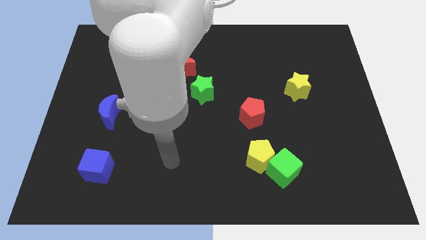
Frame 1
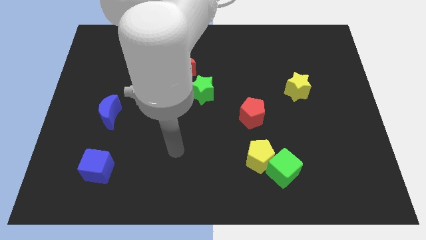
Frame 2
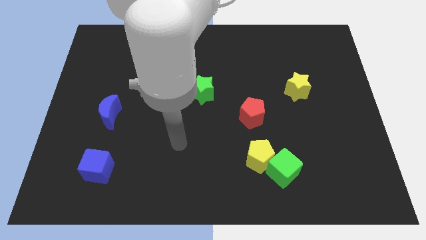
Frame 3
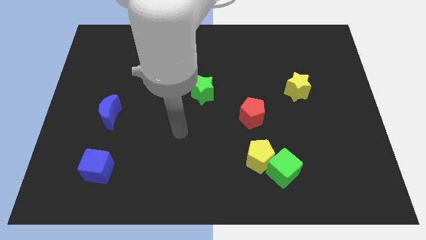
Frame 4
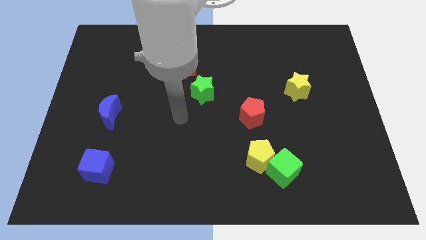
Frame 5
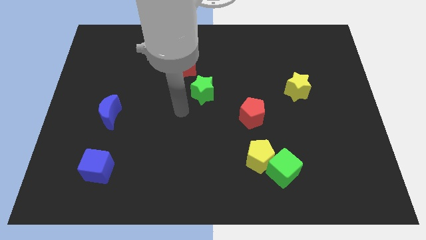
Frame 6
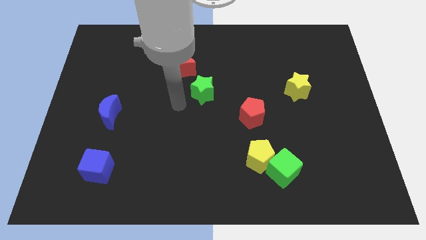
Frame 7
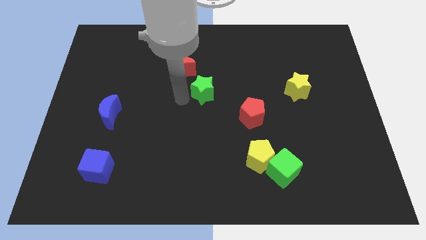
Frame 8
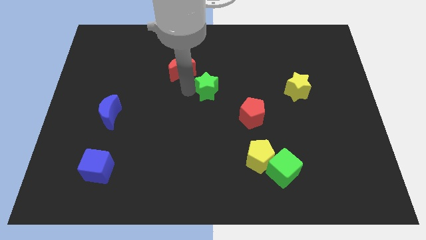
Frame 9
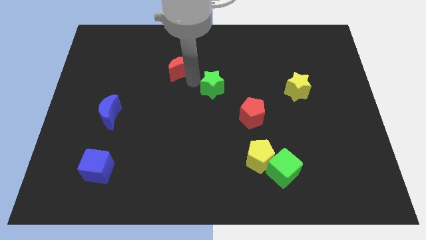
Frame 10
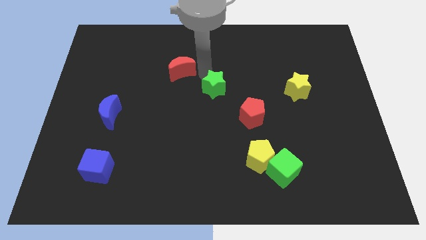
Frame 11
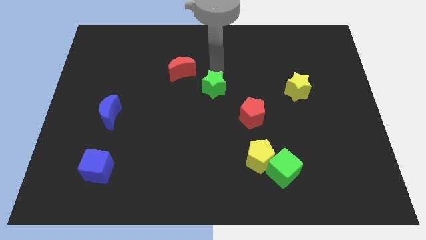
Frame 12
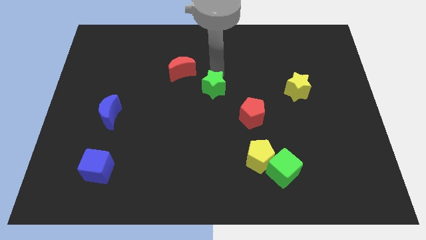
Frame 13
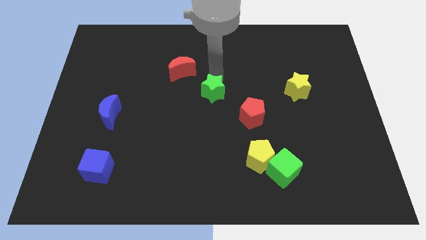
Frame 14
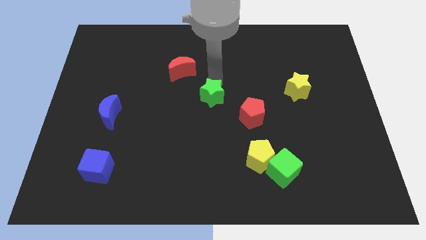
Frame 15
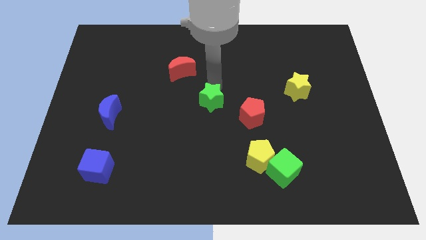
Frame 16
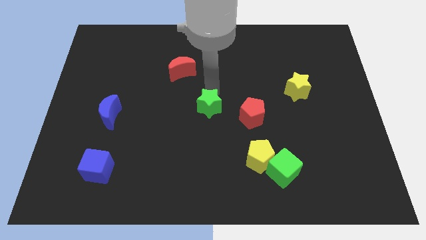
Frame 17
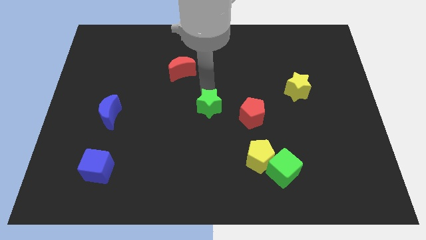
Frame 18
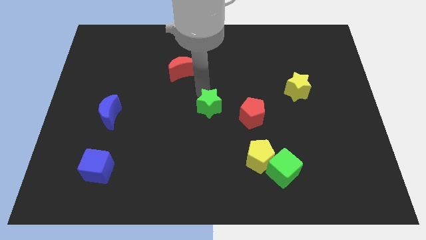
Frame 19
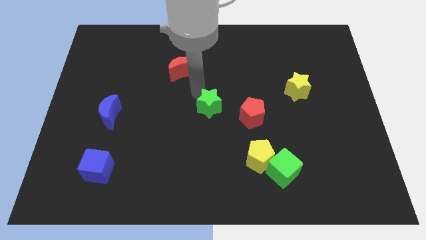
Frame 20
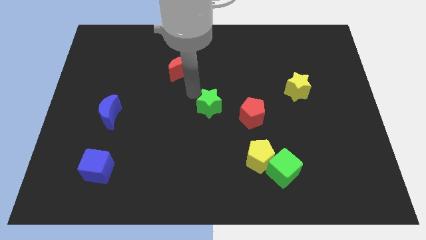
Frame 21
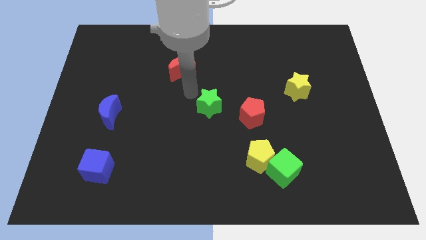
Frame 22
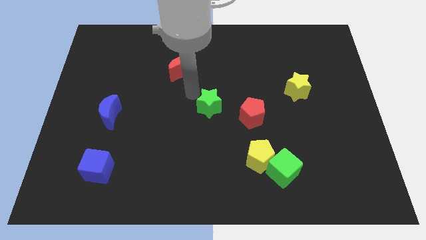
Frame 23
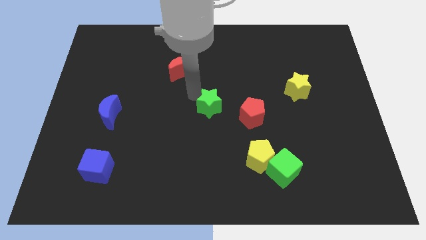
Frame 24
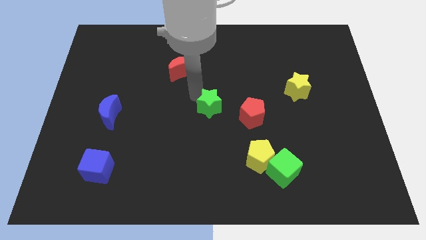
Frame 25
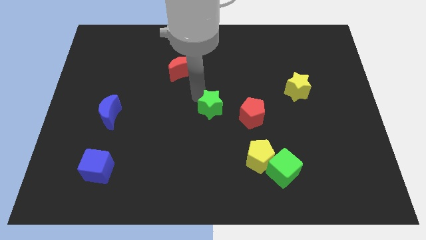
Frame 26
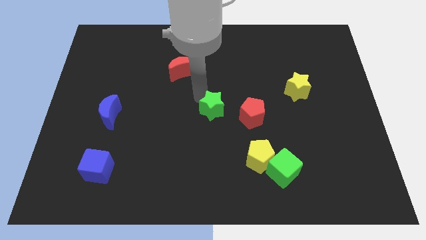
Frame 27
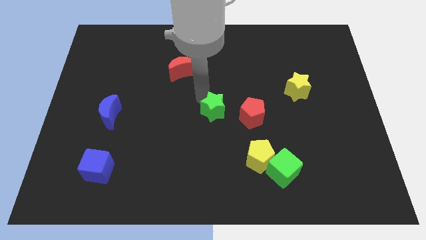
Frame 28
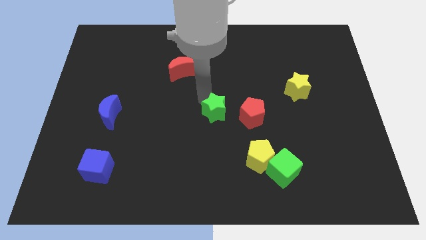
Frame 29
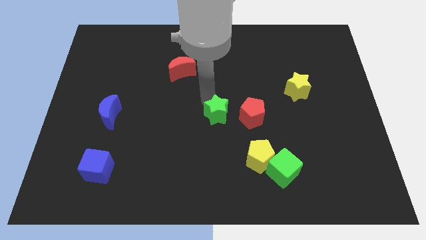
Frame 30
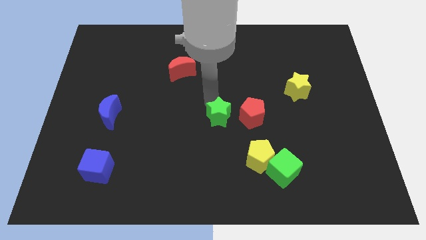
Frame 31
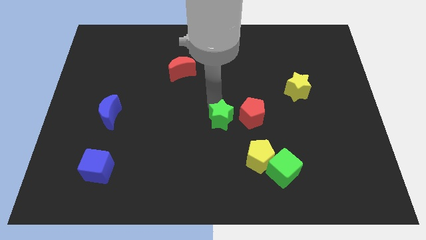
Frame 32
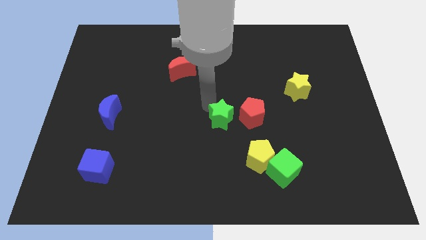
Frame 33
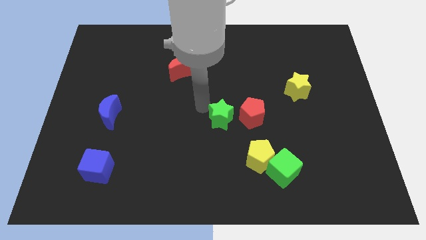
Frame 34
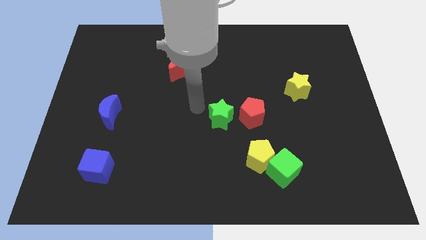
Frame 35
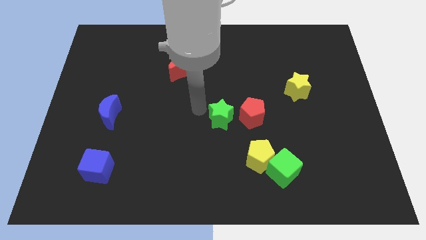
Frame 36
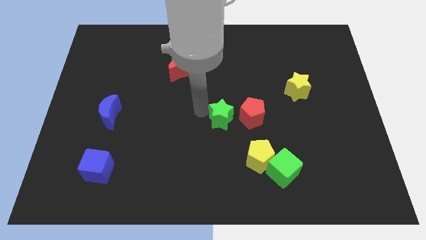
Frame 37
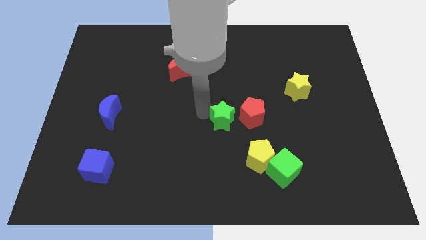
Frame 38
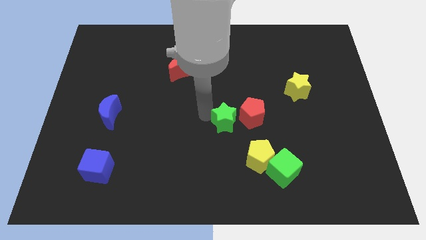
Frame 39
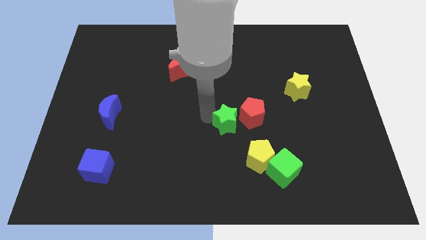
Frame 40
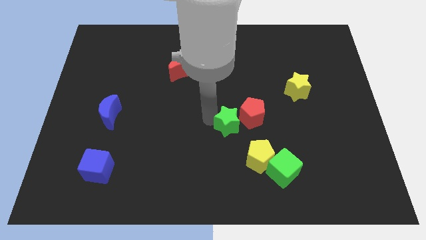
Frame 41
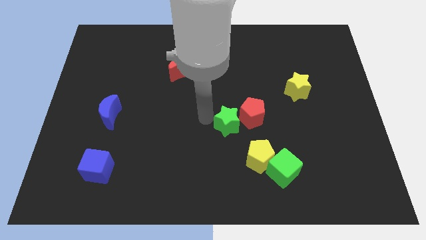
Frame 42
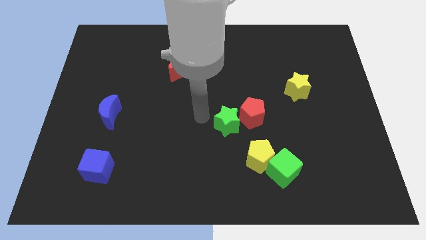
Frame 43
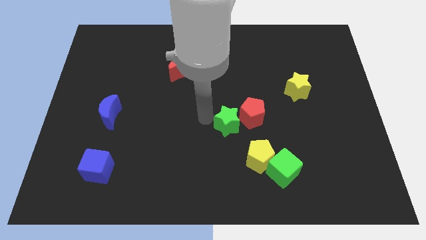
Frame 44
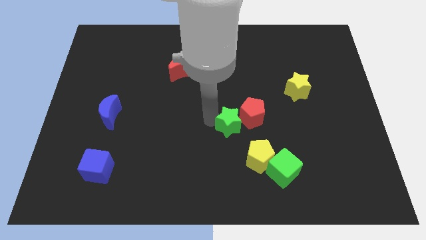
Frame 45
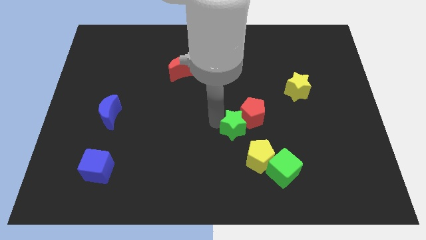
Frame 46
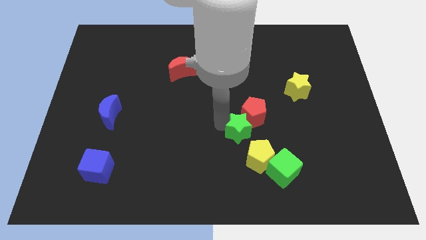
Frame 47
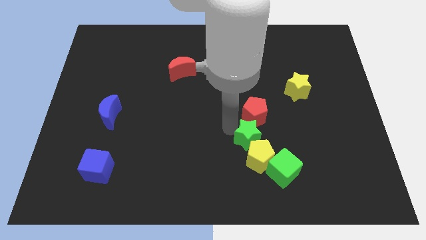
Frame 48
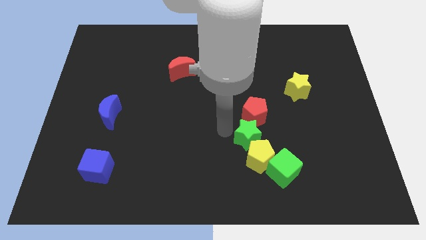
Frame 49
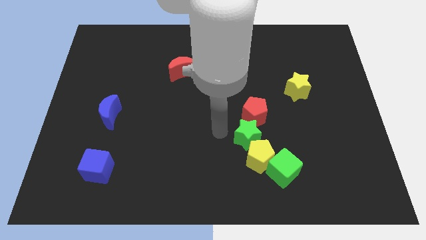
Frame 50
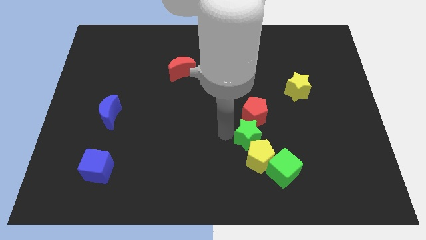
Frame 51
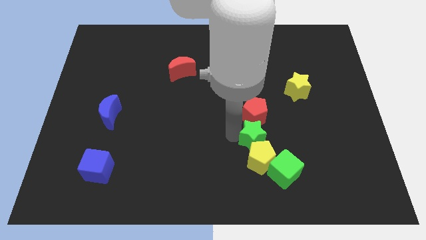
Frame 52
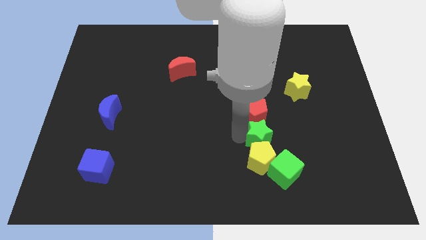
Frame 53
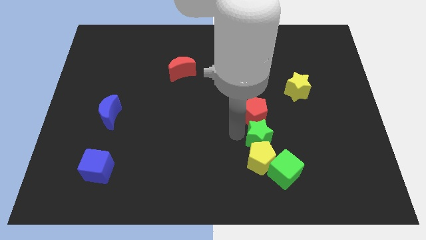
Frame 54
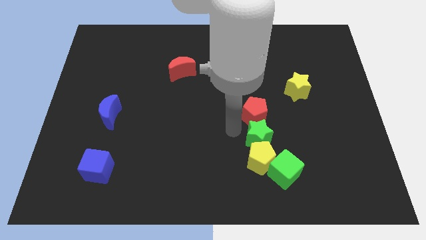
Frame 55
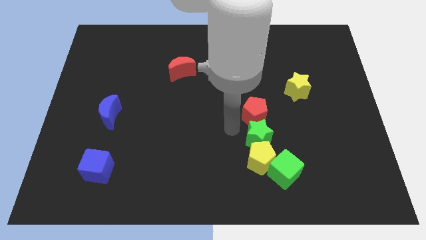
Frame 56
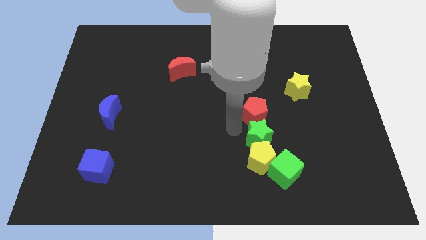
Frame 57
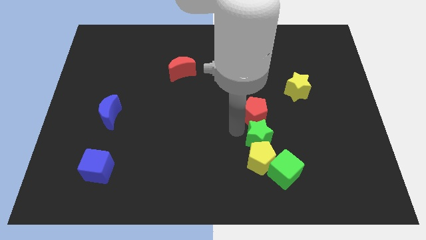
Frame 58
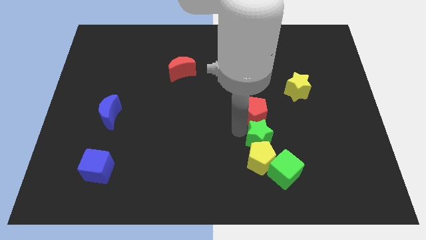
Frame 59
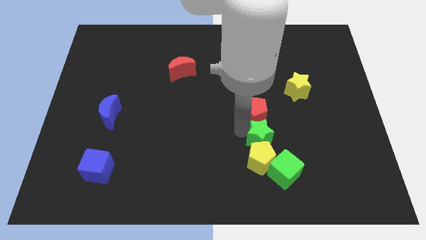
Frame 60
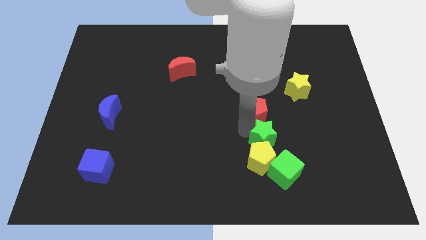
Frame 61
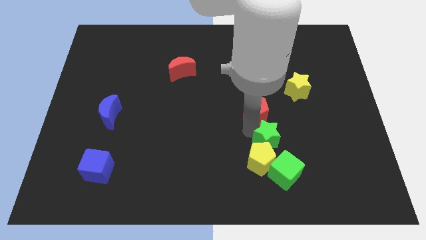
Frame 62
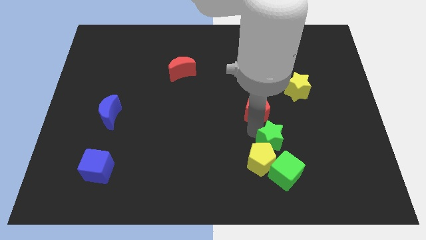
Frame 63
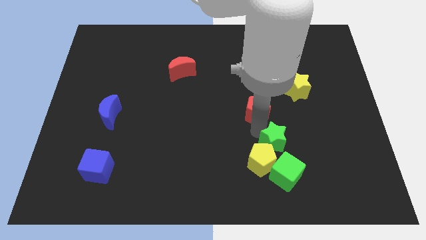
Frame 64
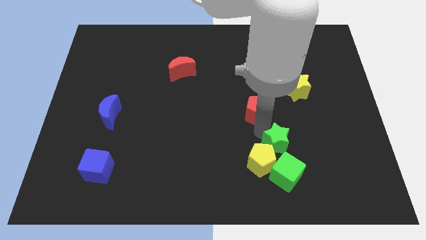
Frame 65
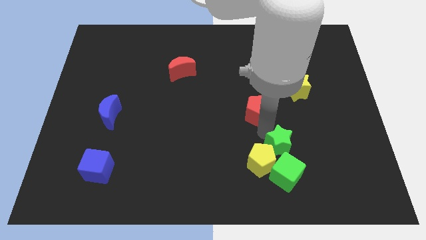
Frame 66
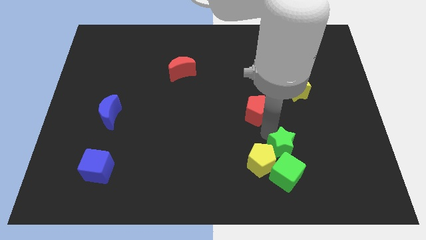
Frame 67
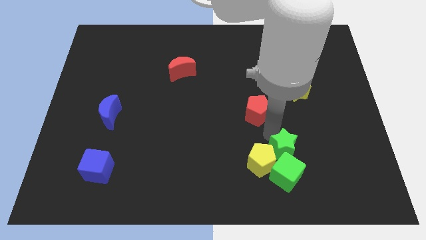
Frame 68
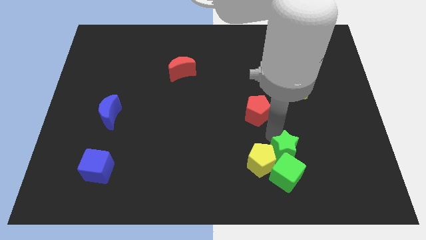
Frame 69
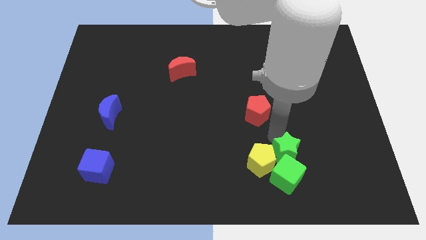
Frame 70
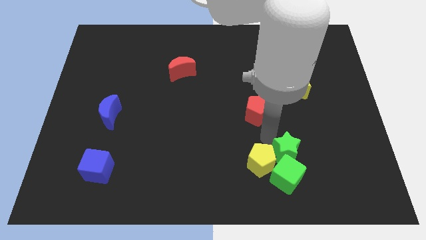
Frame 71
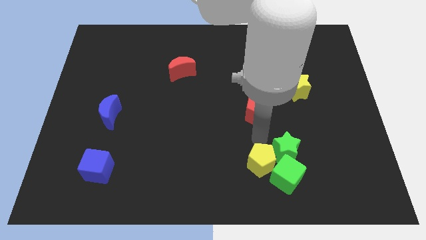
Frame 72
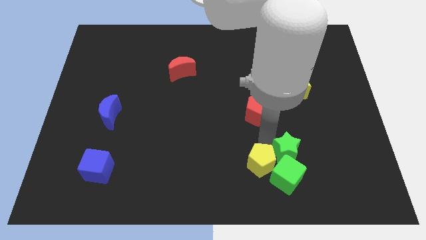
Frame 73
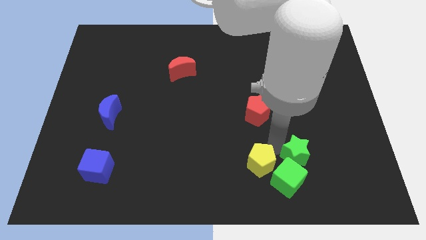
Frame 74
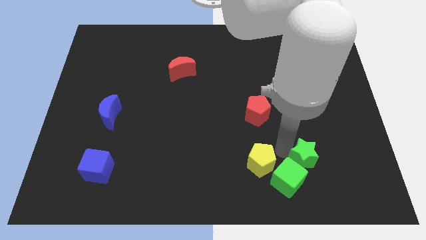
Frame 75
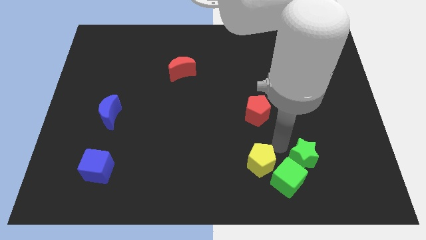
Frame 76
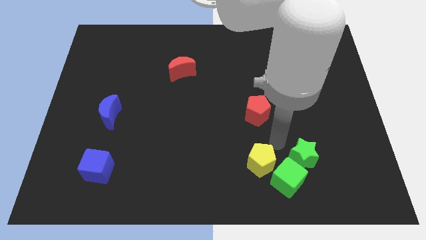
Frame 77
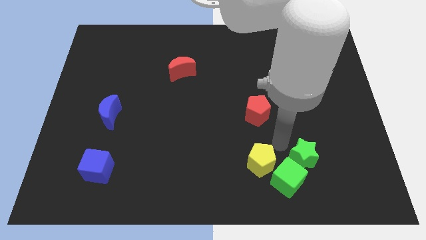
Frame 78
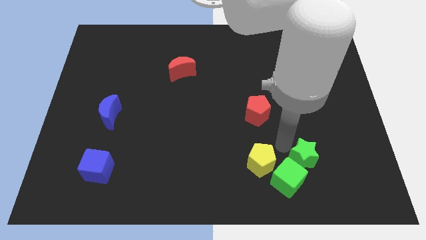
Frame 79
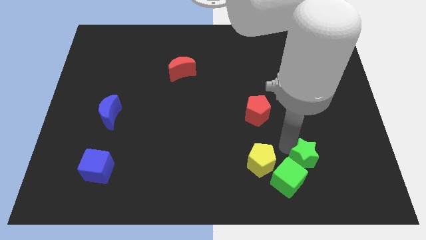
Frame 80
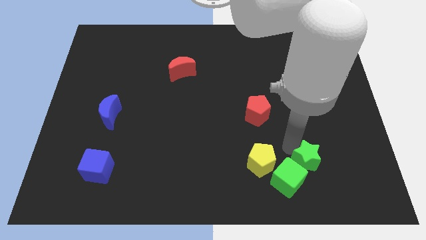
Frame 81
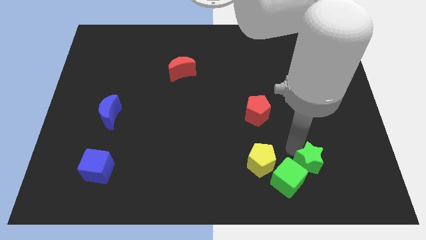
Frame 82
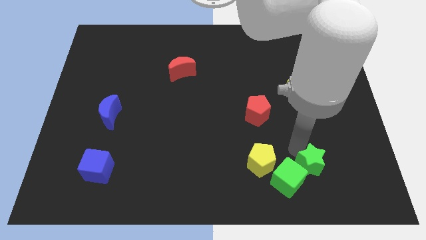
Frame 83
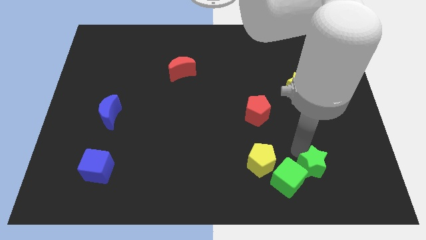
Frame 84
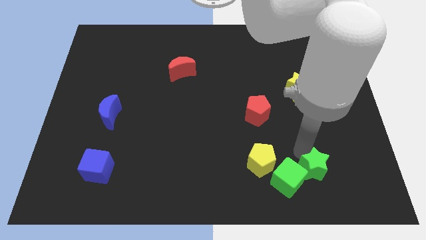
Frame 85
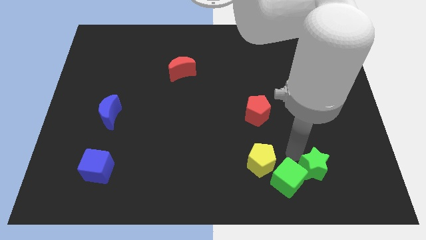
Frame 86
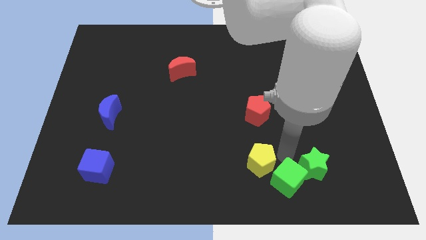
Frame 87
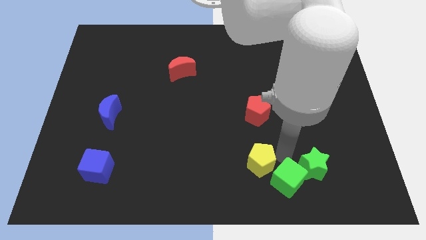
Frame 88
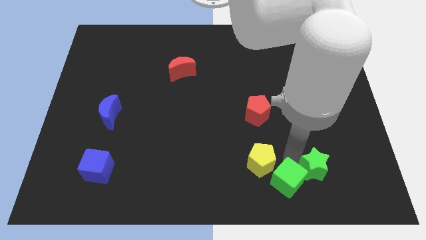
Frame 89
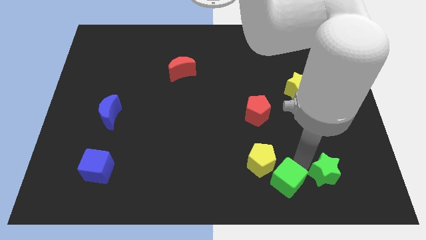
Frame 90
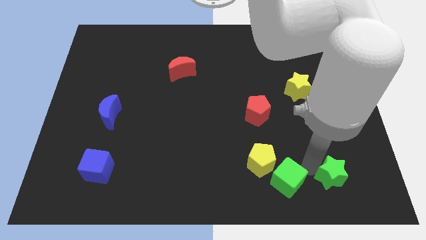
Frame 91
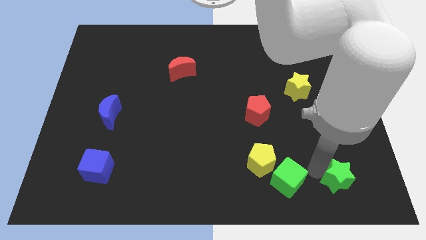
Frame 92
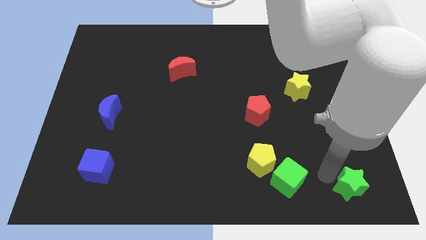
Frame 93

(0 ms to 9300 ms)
move the green star to the lower right corner
